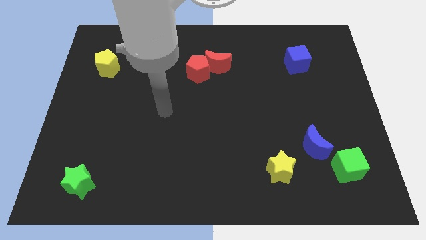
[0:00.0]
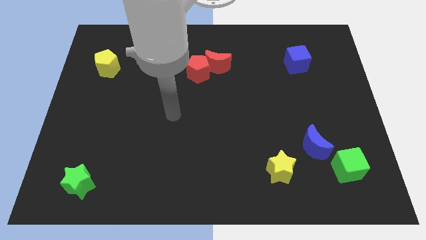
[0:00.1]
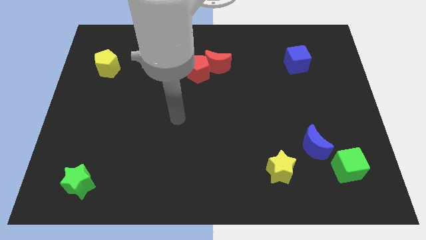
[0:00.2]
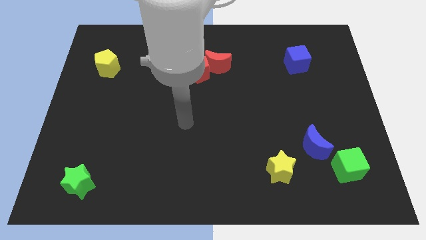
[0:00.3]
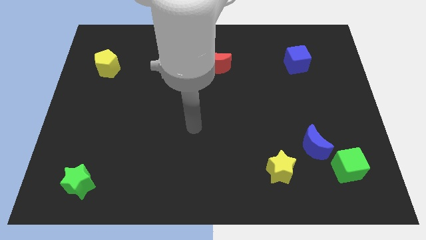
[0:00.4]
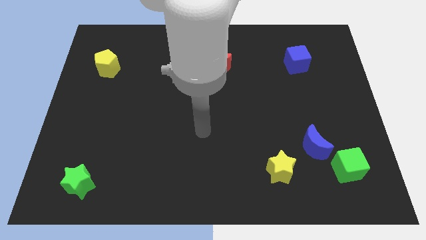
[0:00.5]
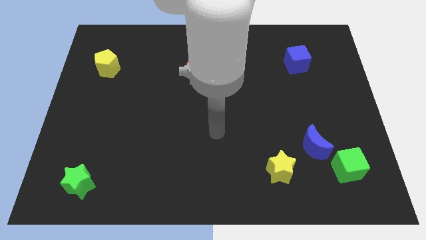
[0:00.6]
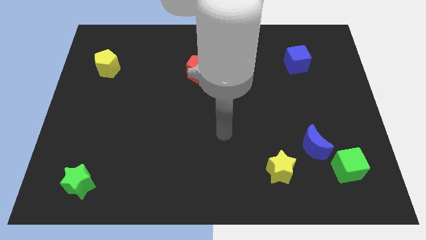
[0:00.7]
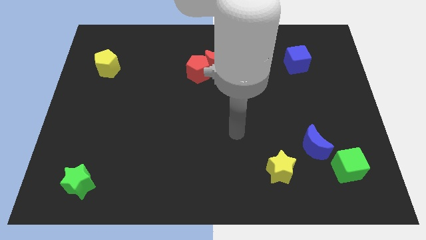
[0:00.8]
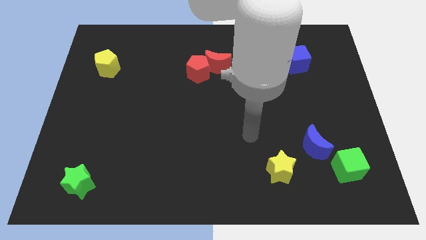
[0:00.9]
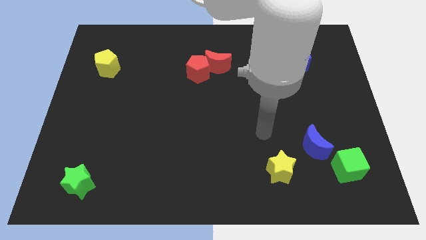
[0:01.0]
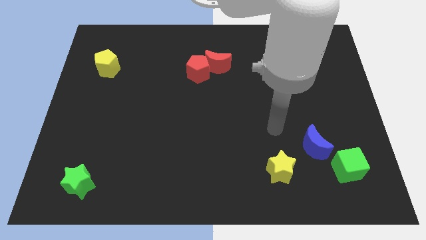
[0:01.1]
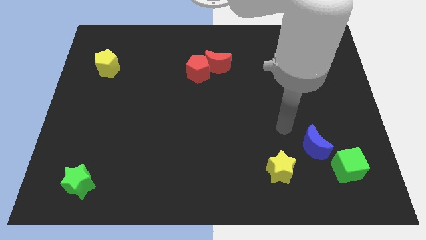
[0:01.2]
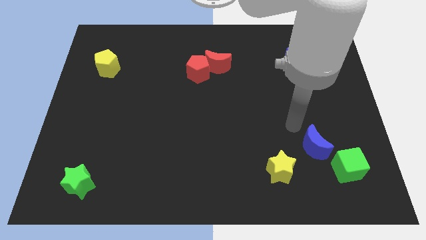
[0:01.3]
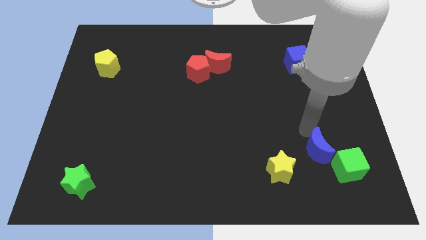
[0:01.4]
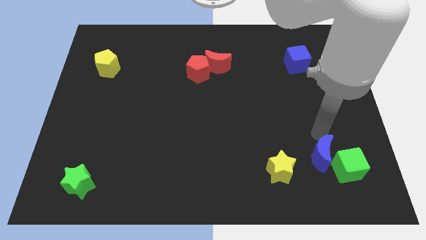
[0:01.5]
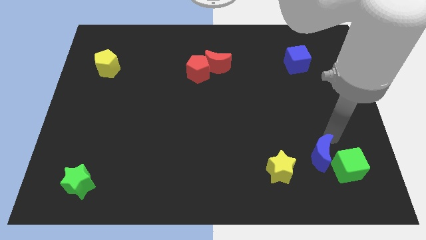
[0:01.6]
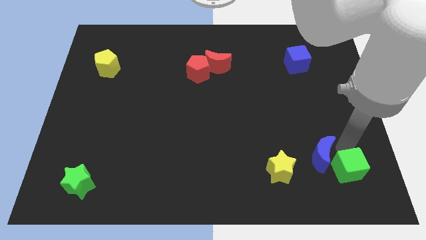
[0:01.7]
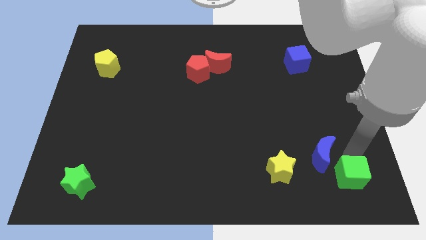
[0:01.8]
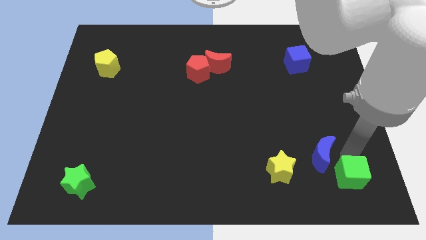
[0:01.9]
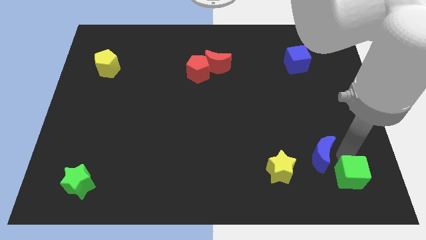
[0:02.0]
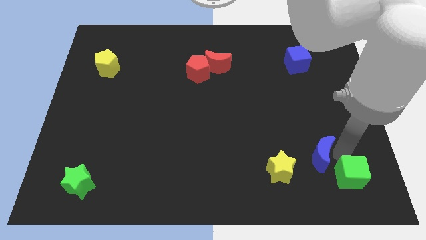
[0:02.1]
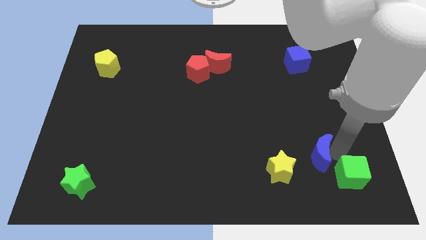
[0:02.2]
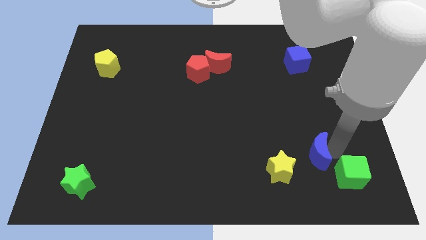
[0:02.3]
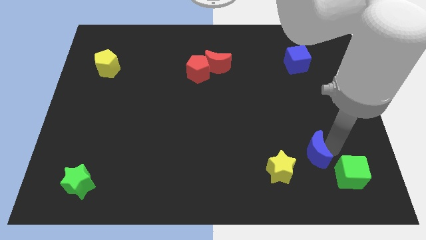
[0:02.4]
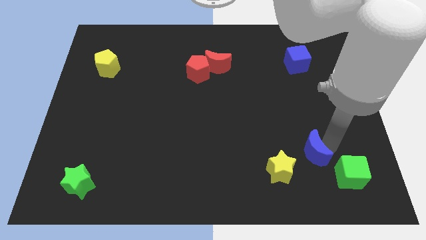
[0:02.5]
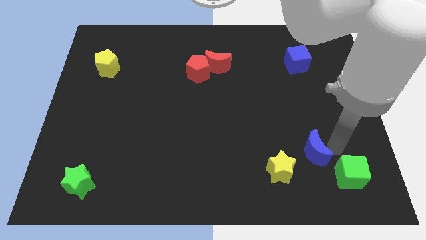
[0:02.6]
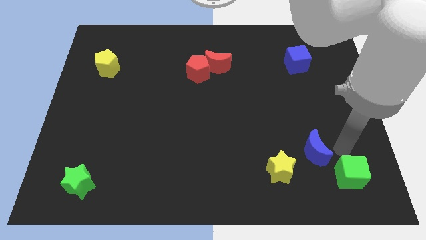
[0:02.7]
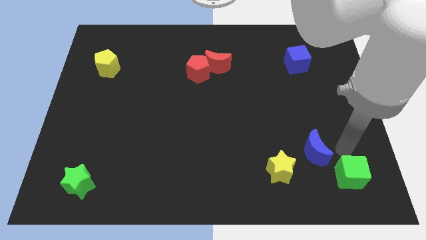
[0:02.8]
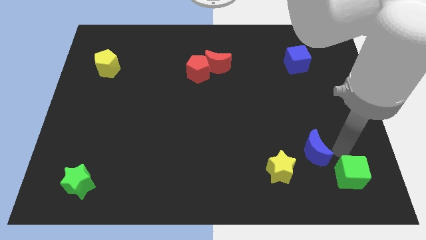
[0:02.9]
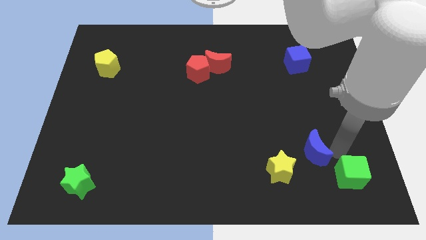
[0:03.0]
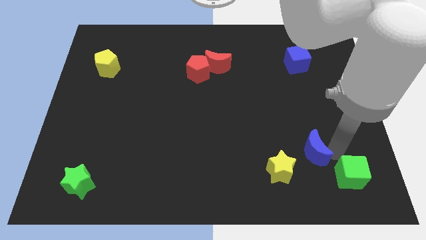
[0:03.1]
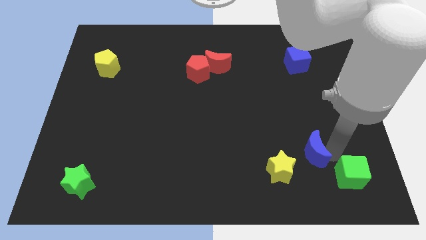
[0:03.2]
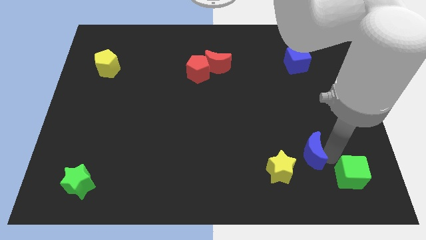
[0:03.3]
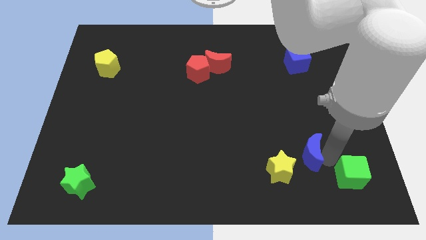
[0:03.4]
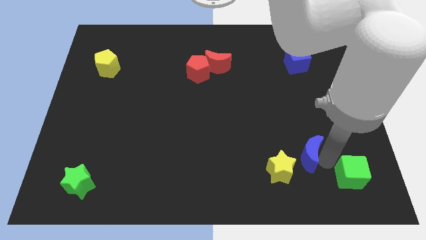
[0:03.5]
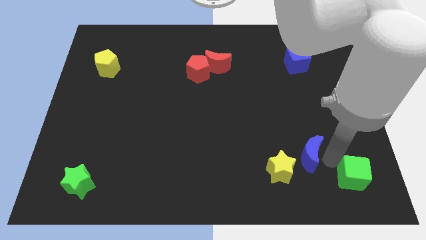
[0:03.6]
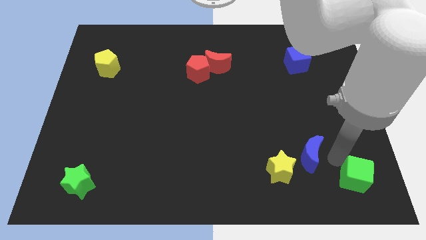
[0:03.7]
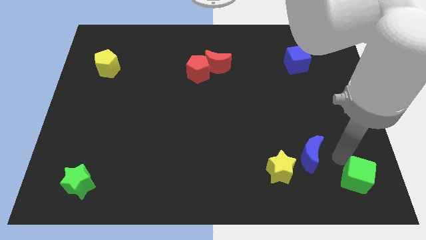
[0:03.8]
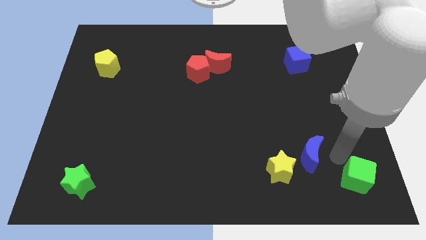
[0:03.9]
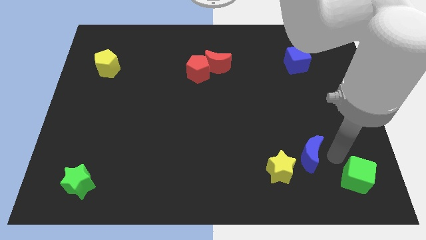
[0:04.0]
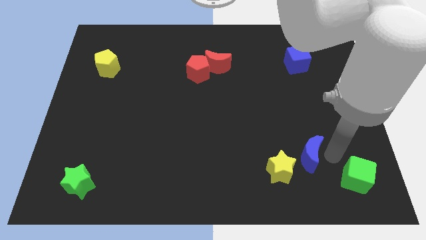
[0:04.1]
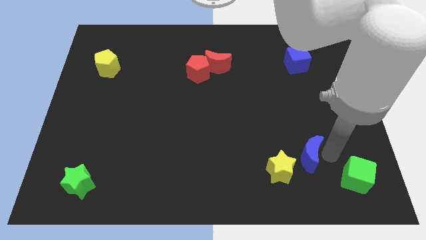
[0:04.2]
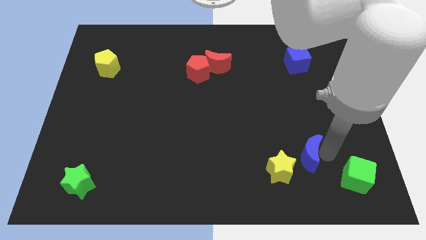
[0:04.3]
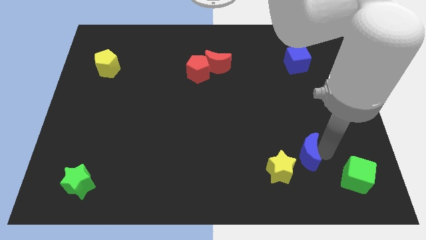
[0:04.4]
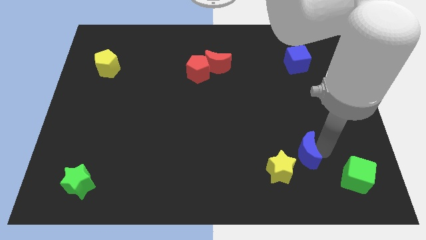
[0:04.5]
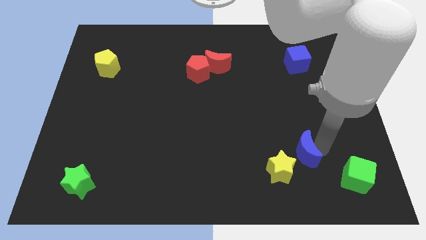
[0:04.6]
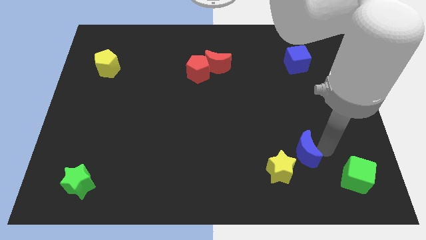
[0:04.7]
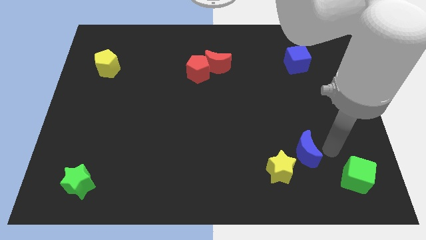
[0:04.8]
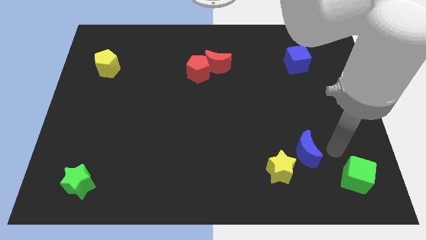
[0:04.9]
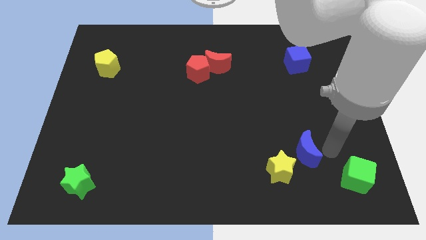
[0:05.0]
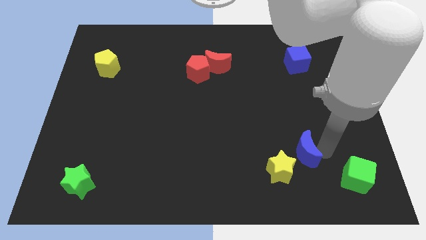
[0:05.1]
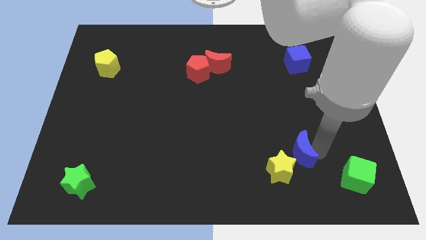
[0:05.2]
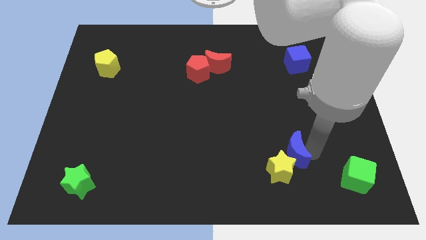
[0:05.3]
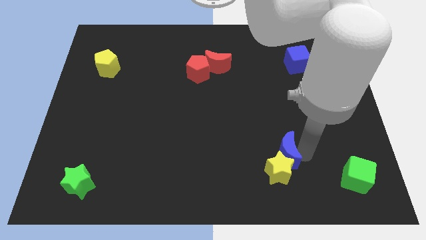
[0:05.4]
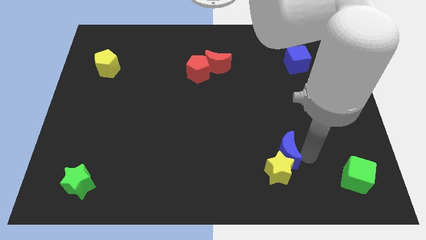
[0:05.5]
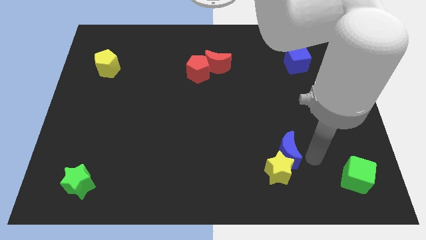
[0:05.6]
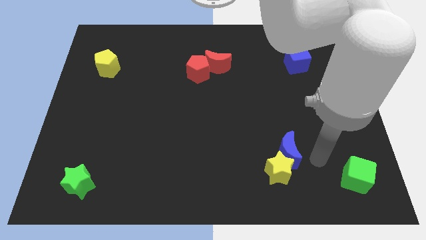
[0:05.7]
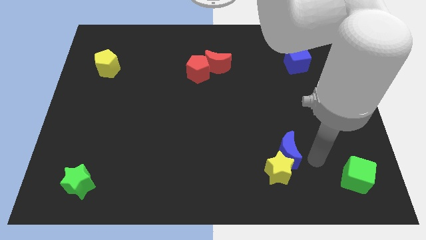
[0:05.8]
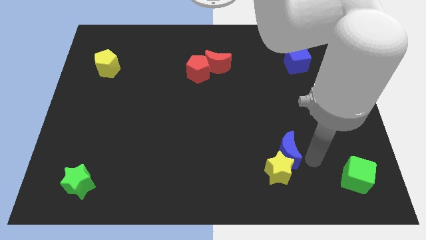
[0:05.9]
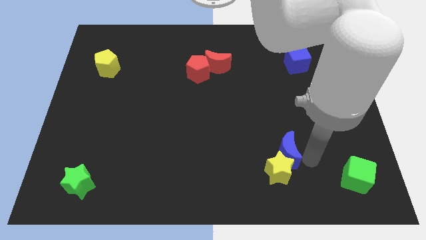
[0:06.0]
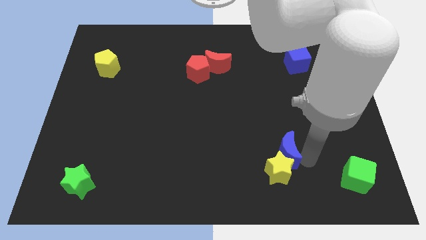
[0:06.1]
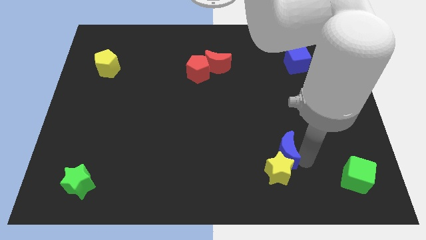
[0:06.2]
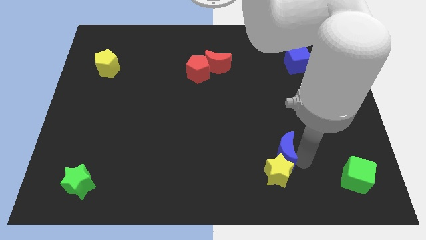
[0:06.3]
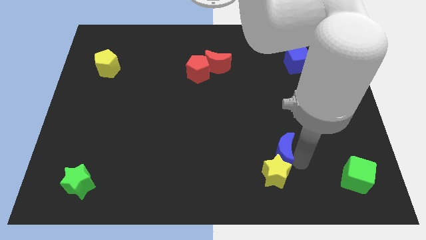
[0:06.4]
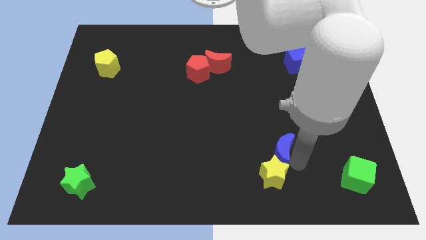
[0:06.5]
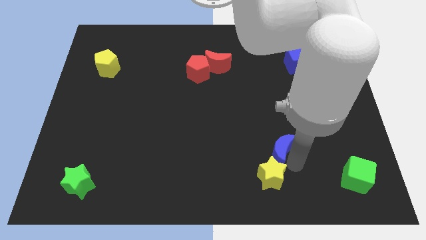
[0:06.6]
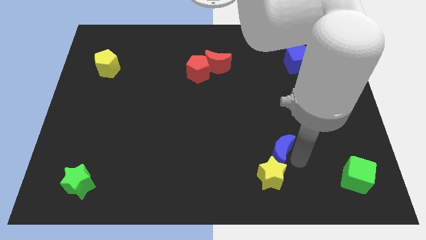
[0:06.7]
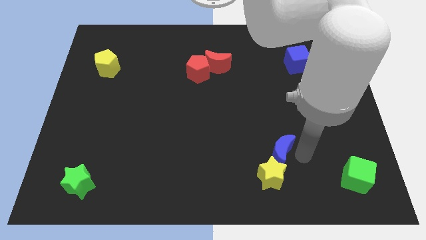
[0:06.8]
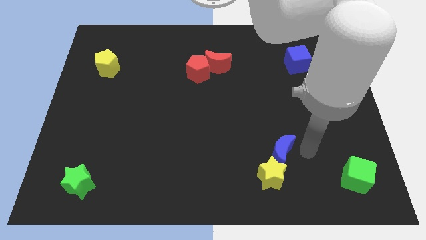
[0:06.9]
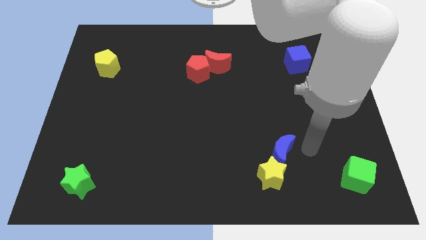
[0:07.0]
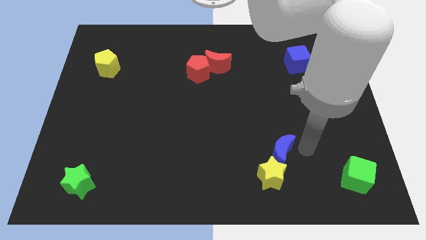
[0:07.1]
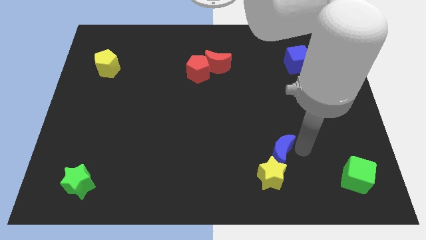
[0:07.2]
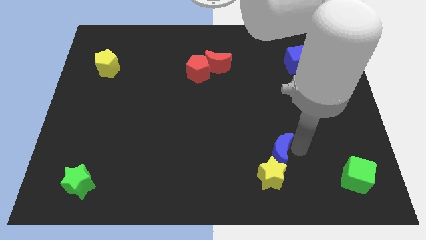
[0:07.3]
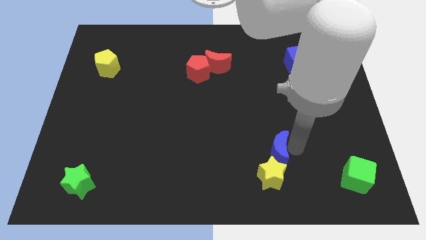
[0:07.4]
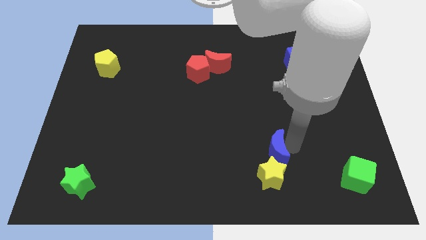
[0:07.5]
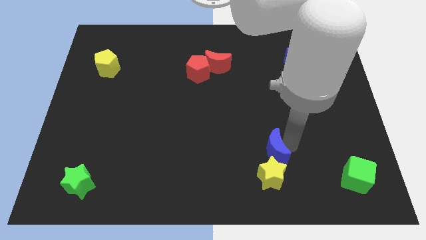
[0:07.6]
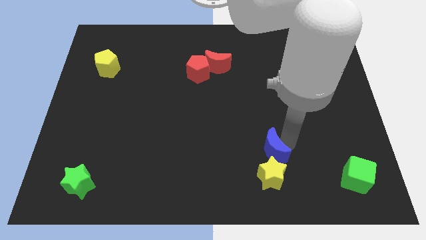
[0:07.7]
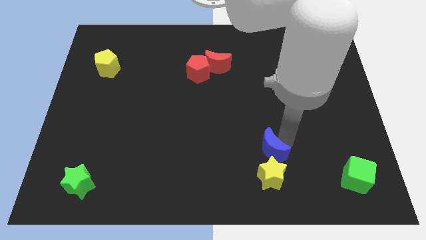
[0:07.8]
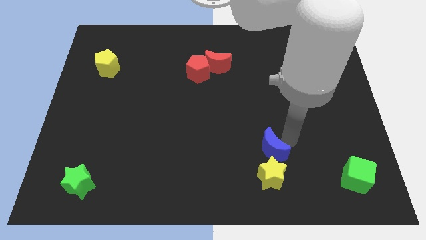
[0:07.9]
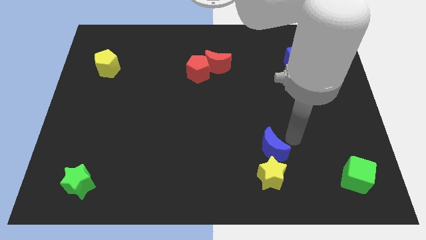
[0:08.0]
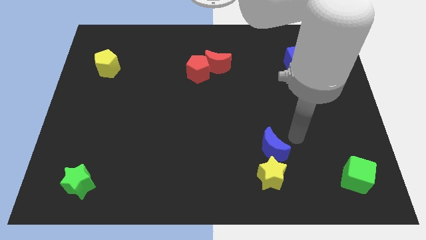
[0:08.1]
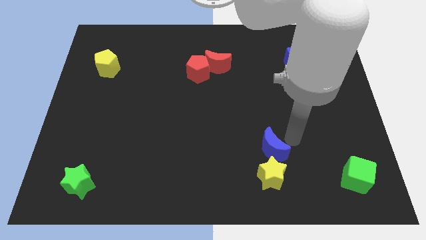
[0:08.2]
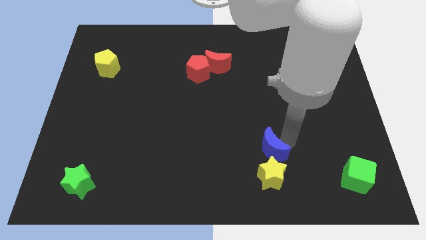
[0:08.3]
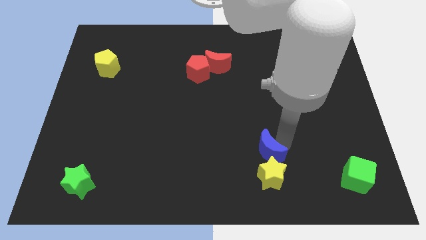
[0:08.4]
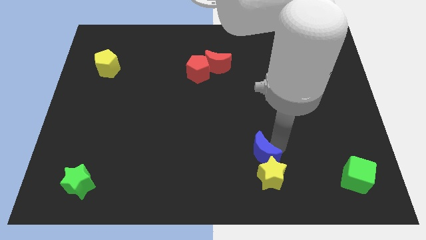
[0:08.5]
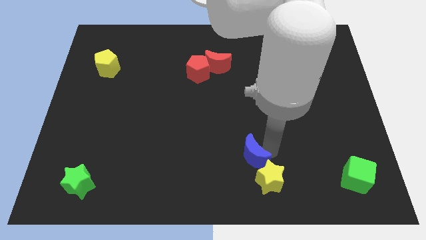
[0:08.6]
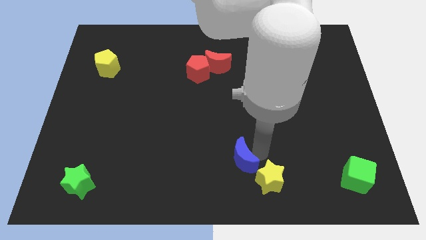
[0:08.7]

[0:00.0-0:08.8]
move the blue moon left of the yellow star
